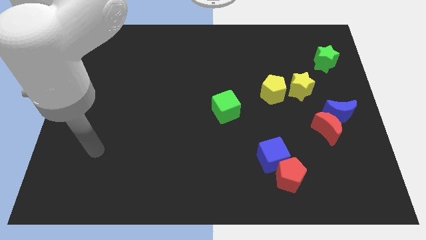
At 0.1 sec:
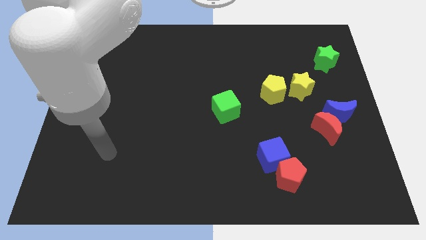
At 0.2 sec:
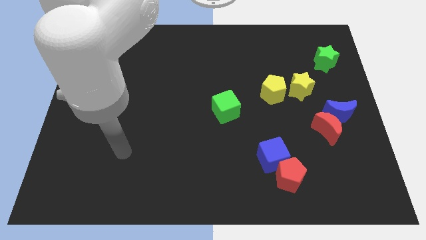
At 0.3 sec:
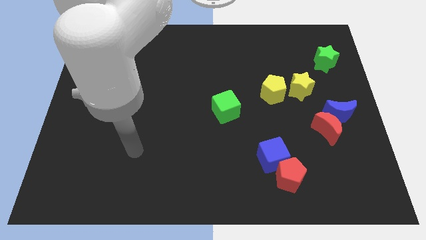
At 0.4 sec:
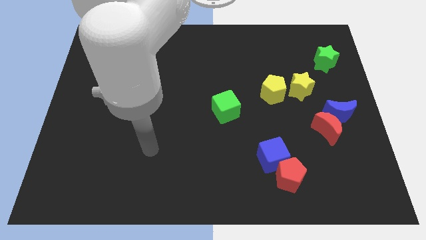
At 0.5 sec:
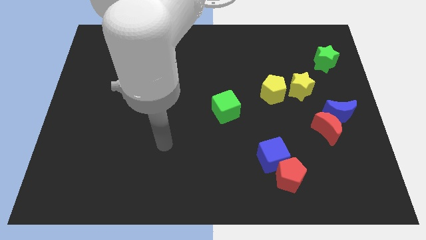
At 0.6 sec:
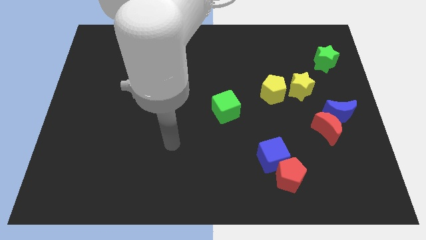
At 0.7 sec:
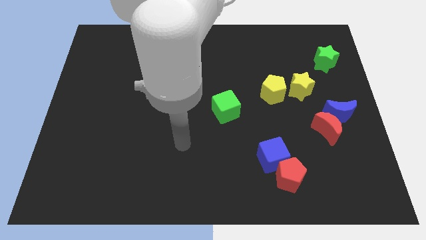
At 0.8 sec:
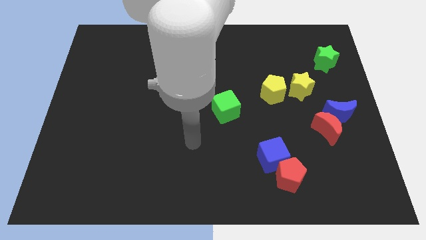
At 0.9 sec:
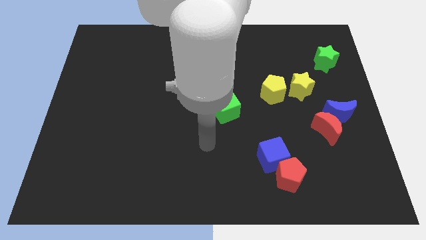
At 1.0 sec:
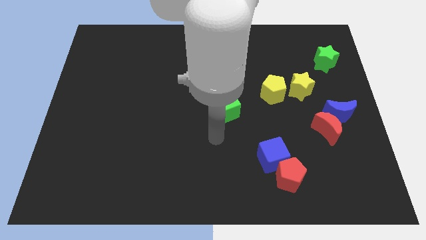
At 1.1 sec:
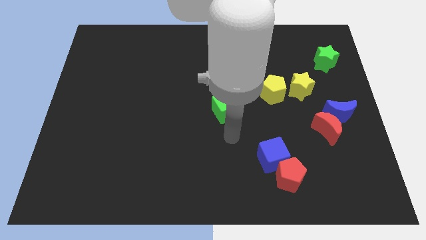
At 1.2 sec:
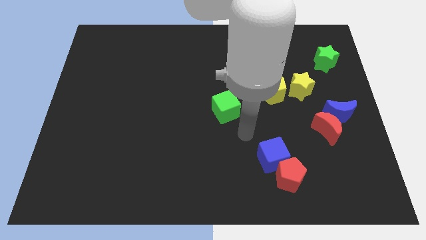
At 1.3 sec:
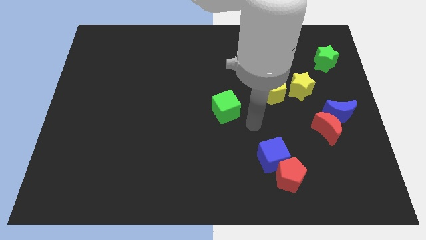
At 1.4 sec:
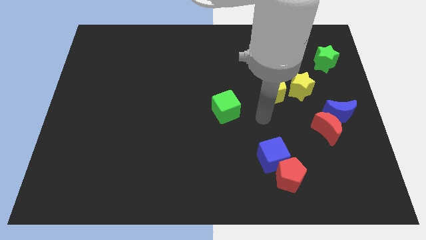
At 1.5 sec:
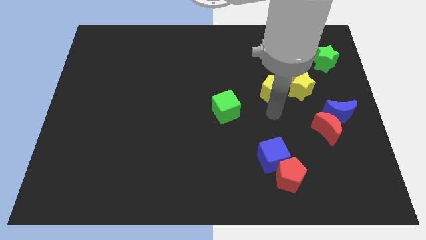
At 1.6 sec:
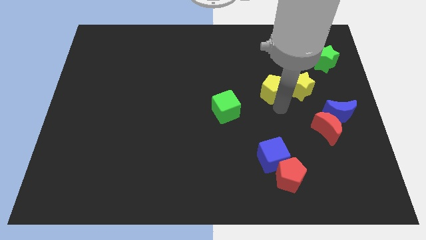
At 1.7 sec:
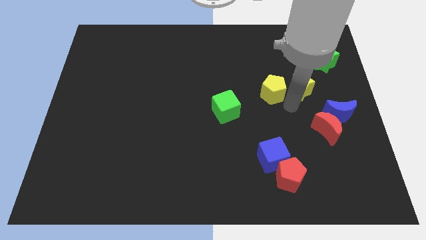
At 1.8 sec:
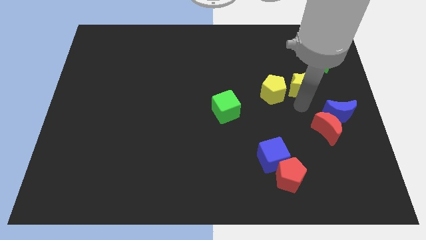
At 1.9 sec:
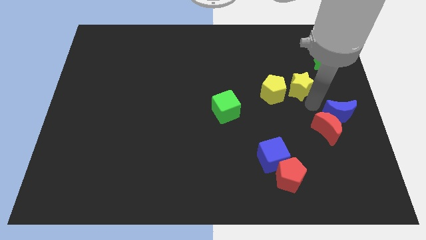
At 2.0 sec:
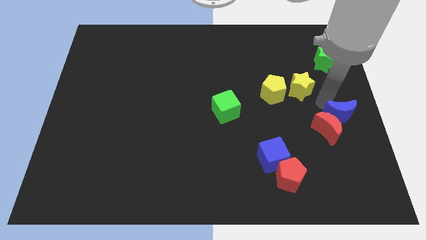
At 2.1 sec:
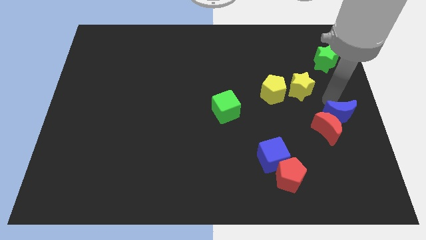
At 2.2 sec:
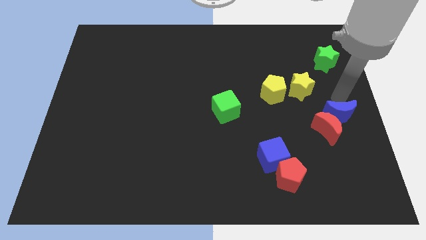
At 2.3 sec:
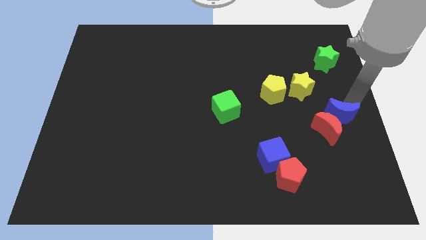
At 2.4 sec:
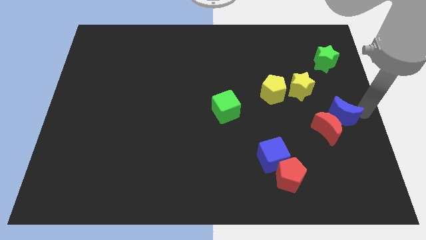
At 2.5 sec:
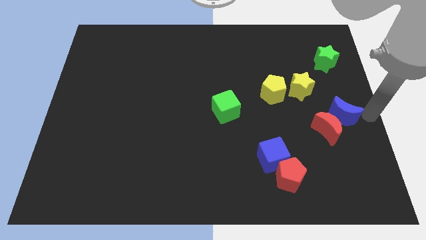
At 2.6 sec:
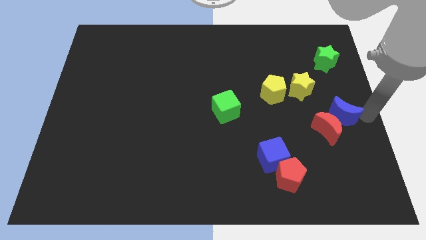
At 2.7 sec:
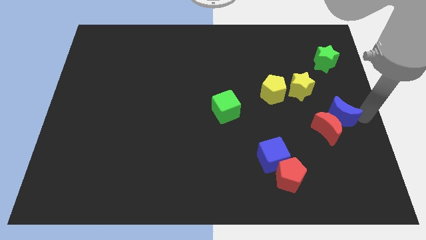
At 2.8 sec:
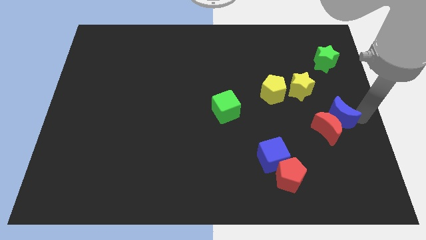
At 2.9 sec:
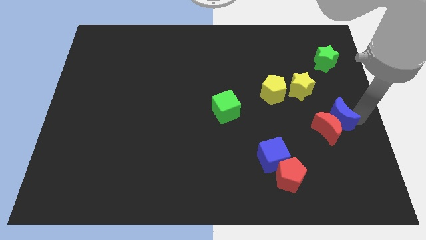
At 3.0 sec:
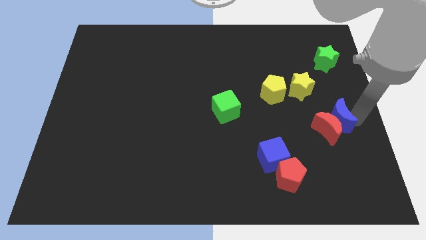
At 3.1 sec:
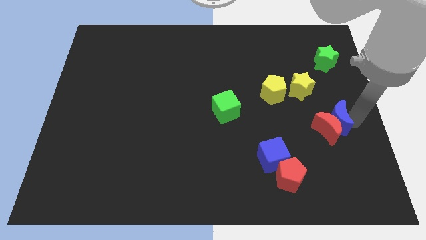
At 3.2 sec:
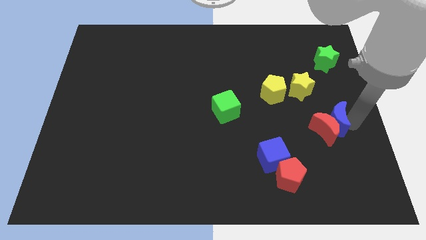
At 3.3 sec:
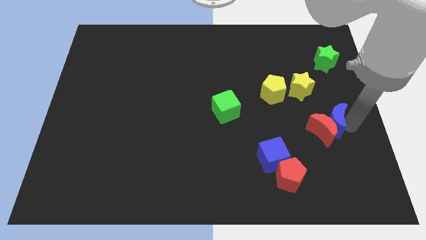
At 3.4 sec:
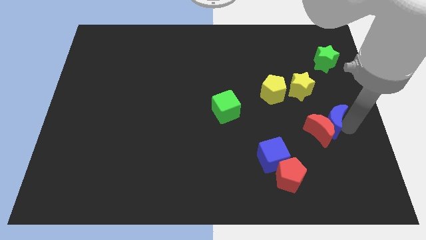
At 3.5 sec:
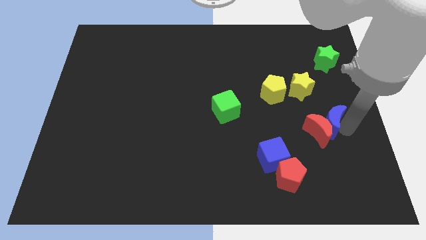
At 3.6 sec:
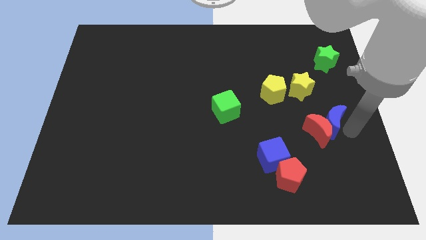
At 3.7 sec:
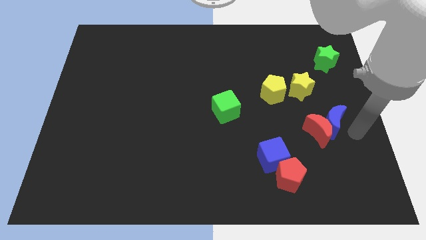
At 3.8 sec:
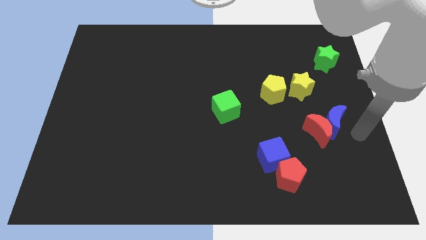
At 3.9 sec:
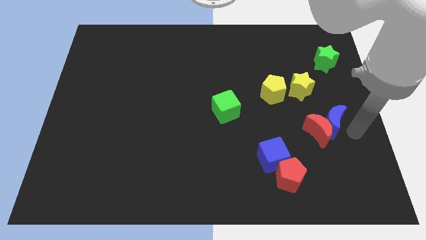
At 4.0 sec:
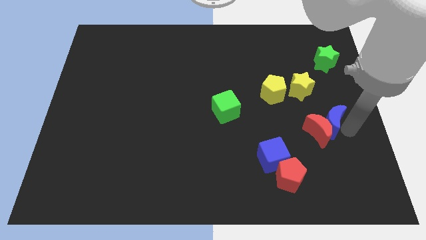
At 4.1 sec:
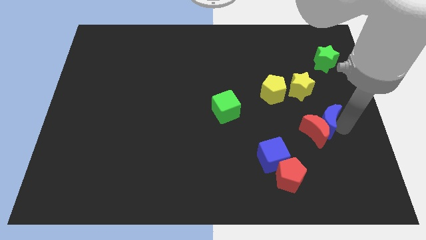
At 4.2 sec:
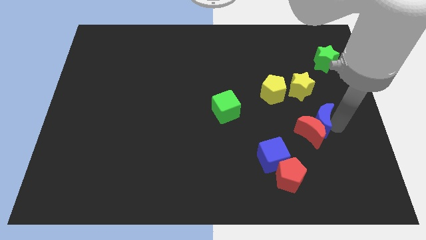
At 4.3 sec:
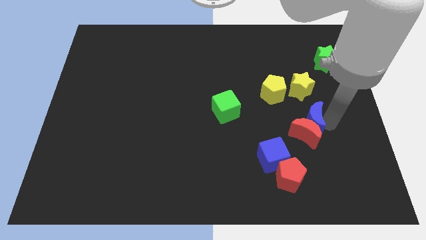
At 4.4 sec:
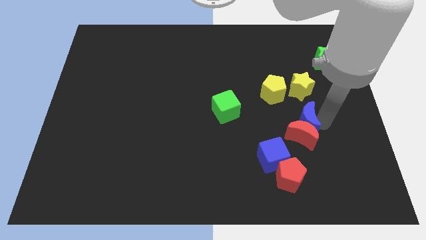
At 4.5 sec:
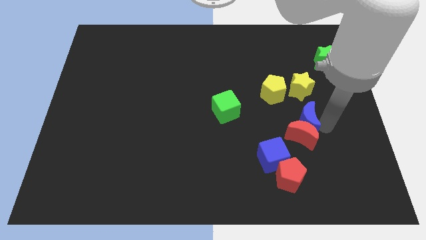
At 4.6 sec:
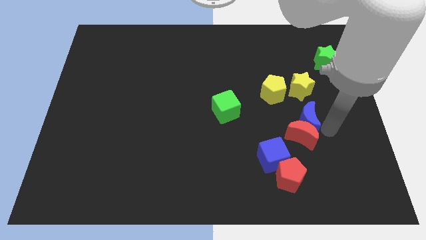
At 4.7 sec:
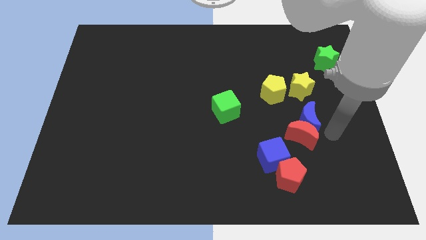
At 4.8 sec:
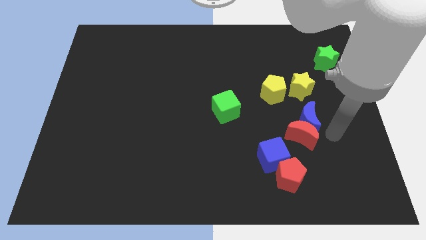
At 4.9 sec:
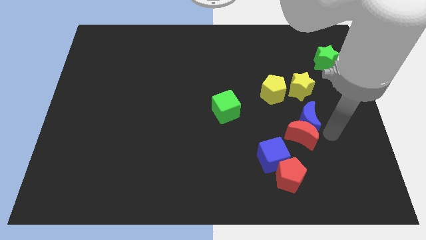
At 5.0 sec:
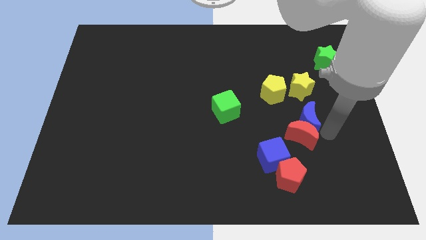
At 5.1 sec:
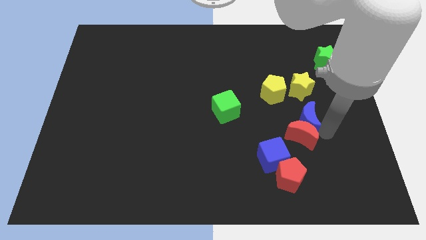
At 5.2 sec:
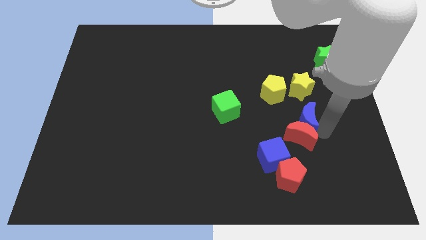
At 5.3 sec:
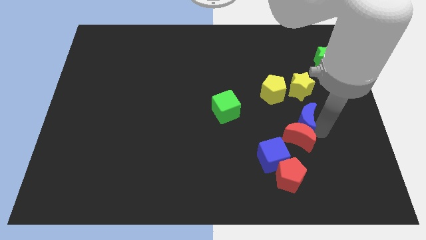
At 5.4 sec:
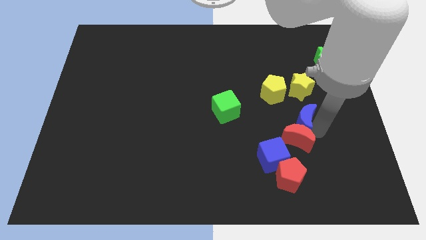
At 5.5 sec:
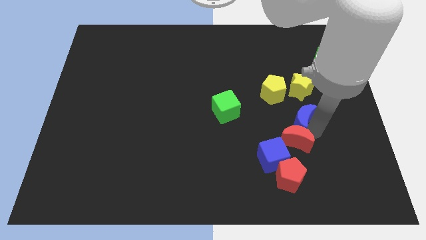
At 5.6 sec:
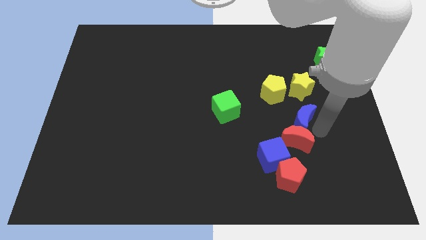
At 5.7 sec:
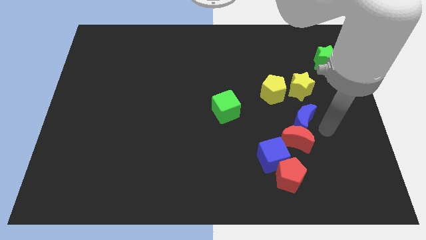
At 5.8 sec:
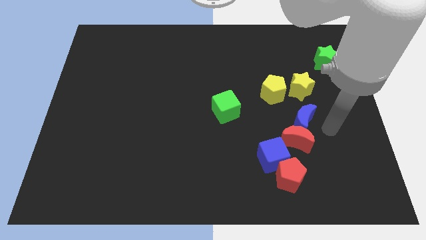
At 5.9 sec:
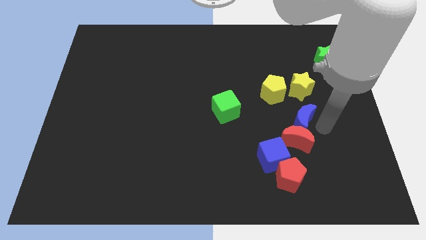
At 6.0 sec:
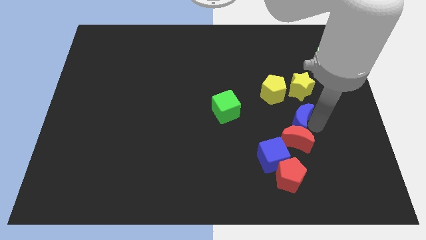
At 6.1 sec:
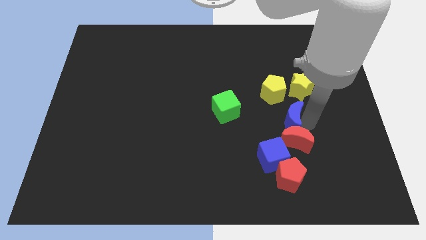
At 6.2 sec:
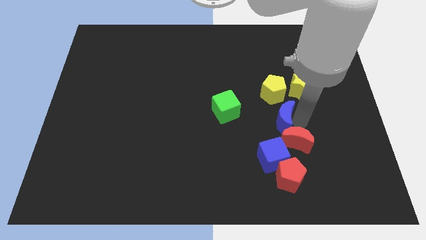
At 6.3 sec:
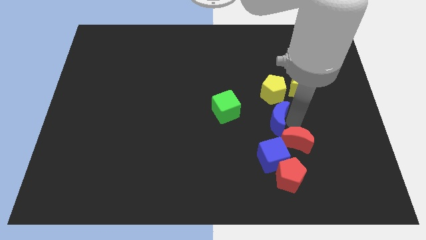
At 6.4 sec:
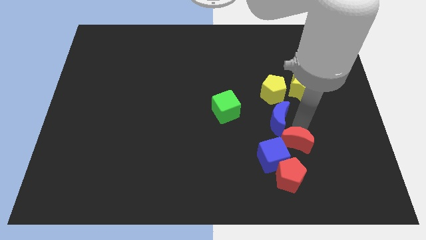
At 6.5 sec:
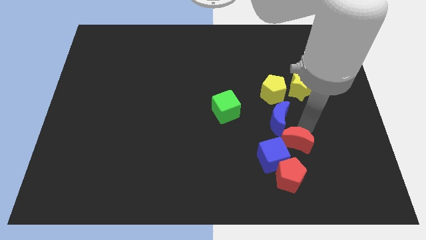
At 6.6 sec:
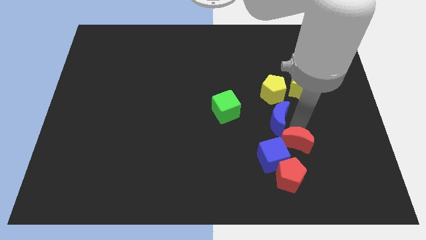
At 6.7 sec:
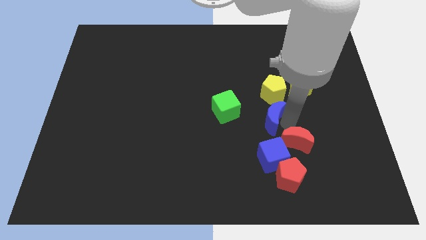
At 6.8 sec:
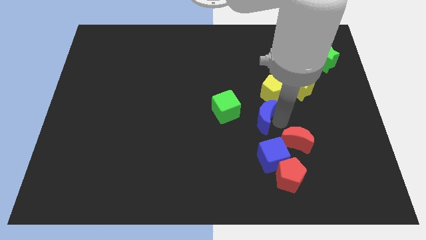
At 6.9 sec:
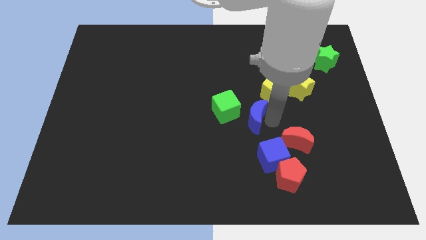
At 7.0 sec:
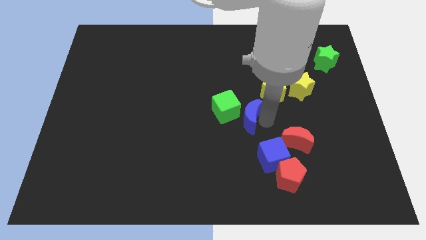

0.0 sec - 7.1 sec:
slide the blue moon close to the green cube

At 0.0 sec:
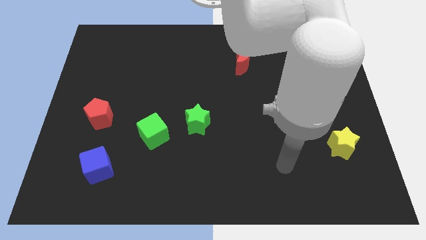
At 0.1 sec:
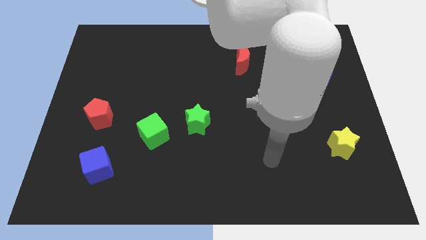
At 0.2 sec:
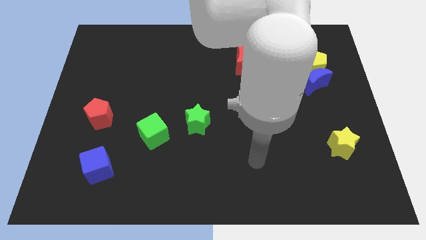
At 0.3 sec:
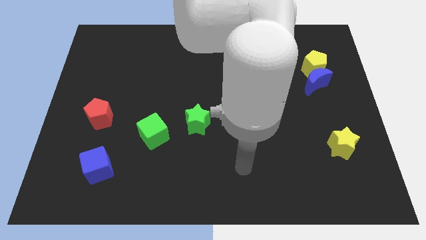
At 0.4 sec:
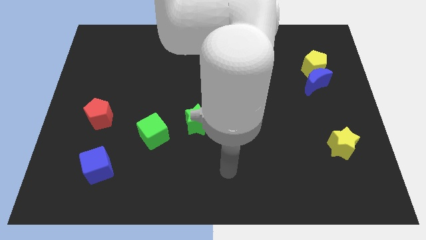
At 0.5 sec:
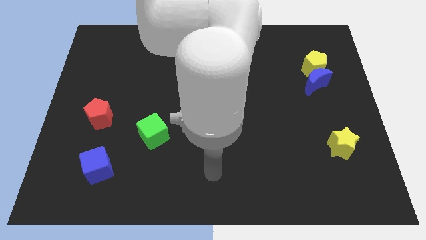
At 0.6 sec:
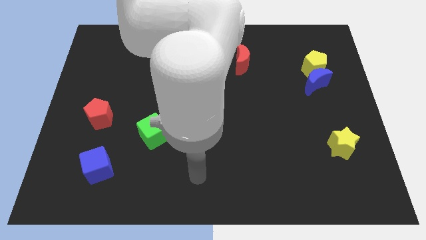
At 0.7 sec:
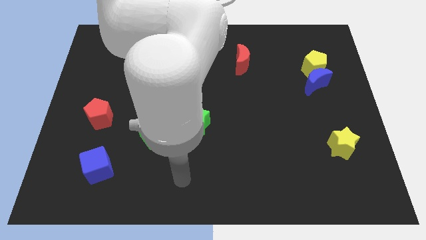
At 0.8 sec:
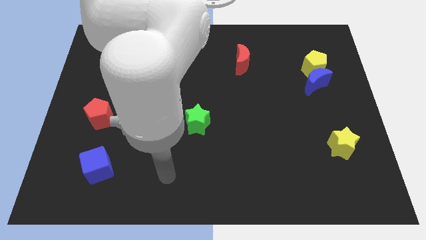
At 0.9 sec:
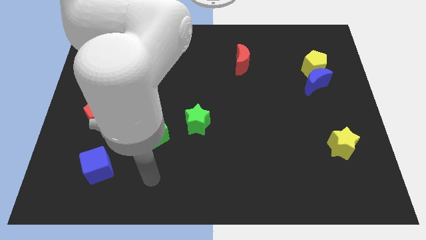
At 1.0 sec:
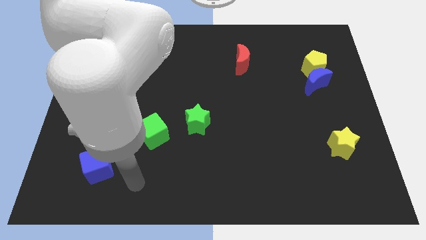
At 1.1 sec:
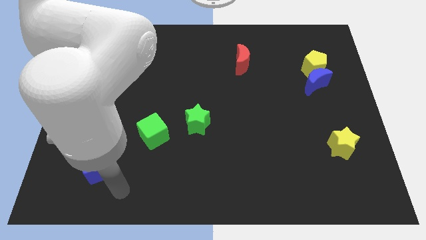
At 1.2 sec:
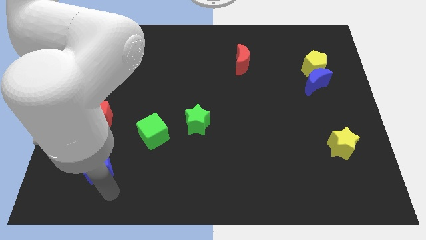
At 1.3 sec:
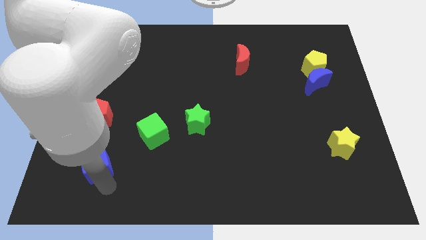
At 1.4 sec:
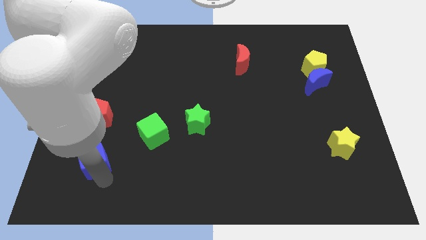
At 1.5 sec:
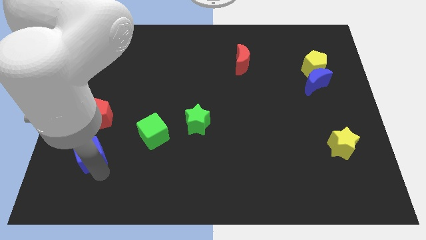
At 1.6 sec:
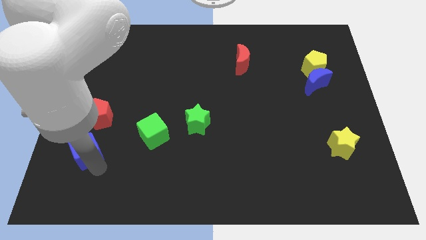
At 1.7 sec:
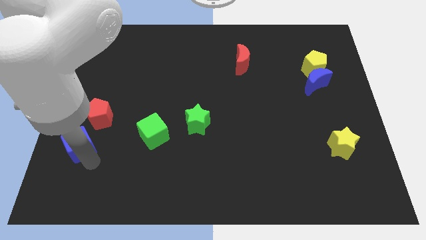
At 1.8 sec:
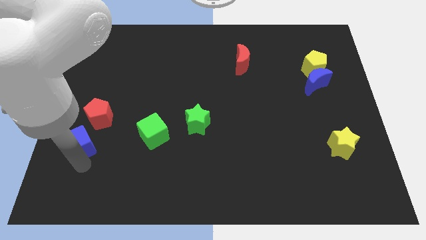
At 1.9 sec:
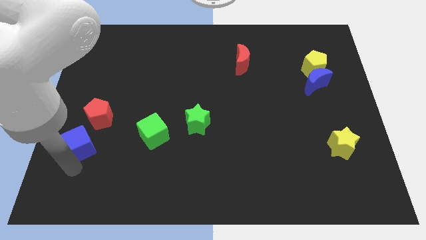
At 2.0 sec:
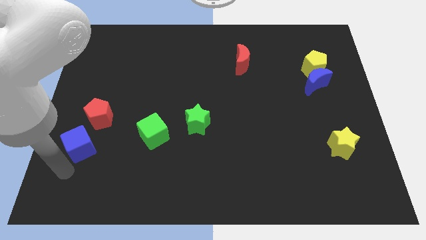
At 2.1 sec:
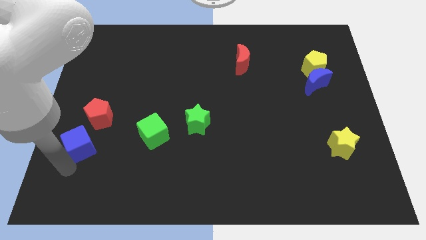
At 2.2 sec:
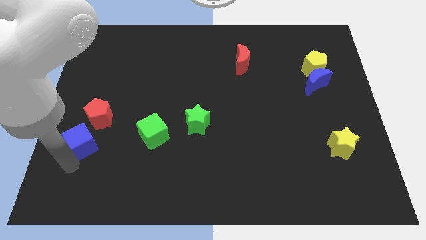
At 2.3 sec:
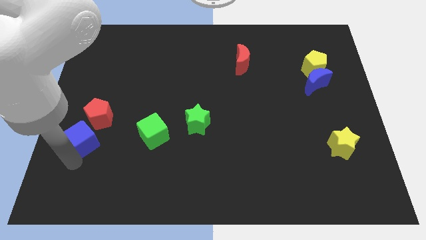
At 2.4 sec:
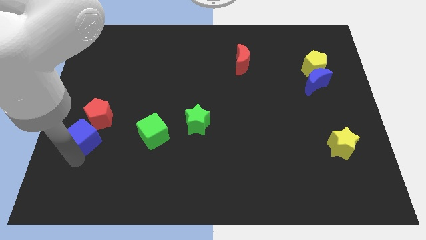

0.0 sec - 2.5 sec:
slide the blue cube next to the red pentagon
